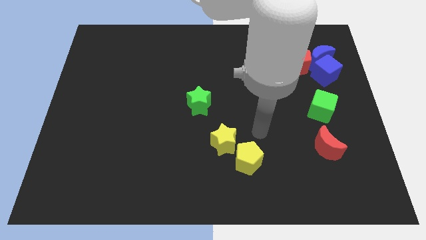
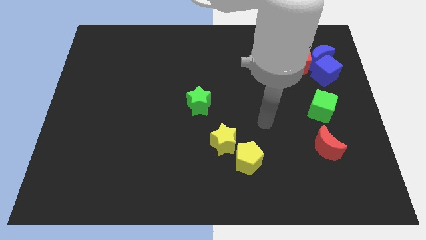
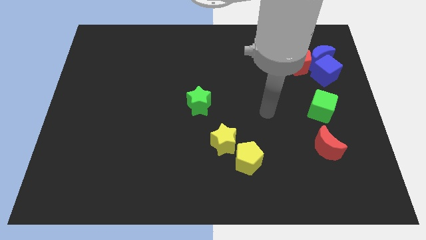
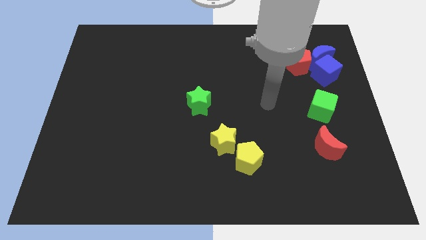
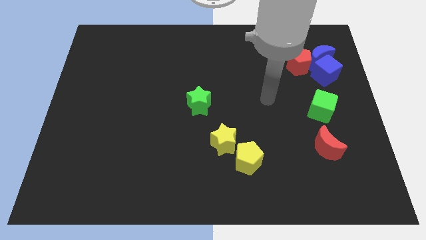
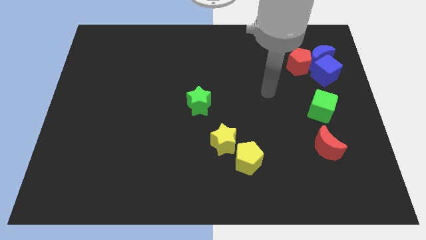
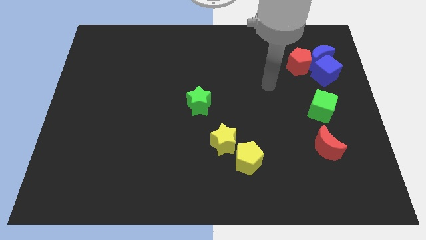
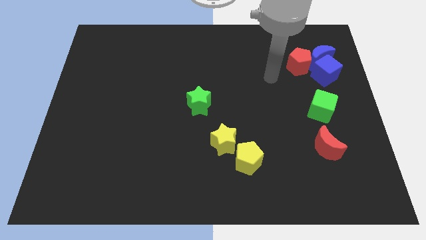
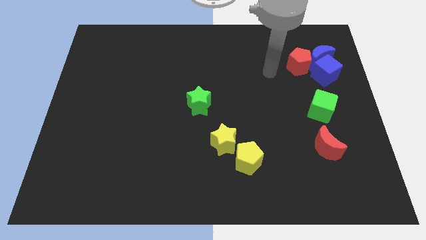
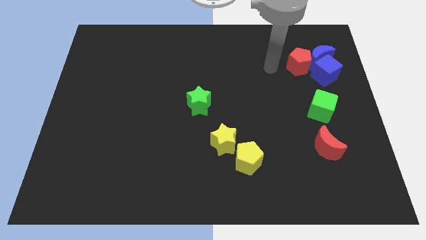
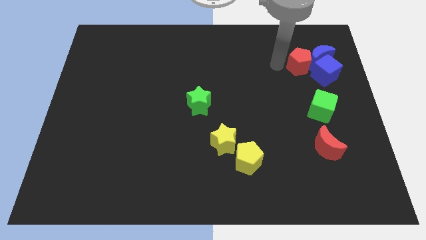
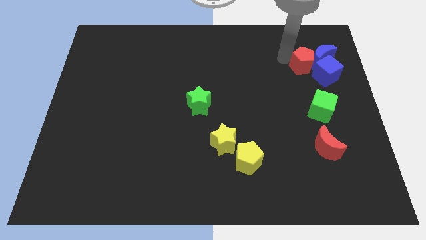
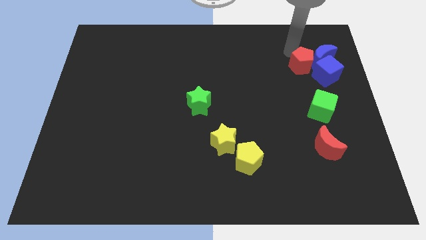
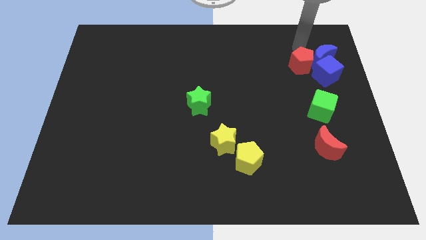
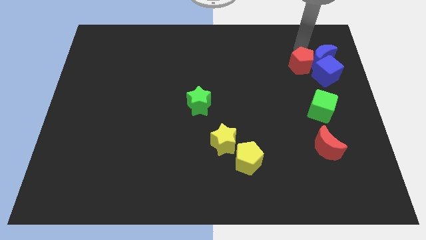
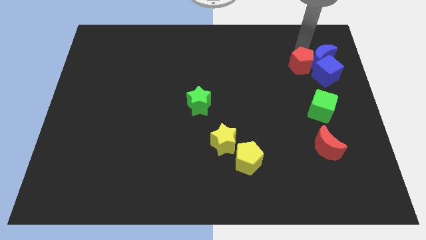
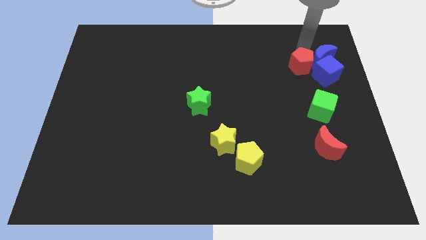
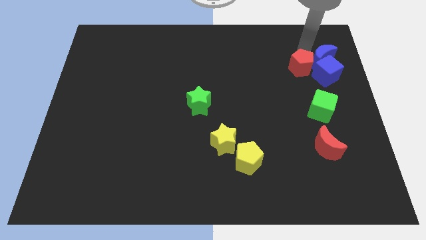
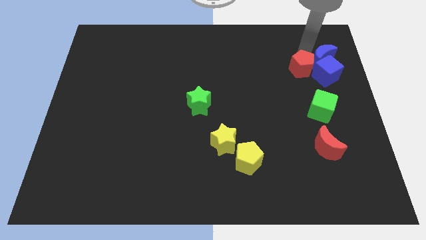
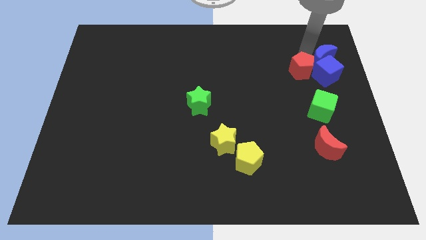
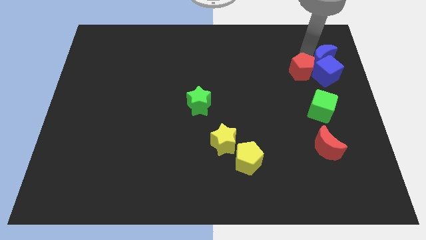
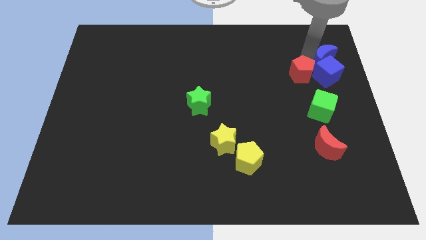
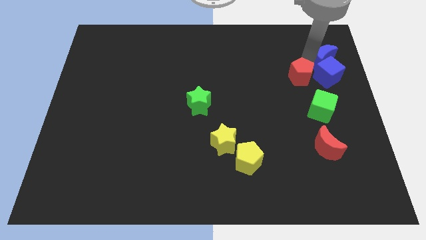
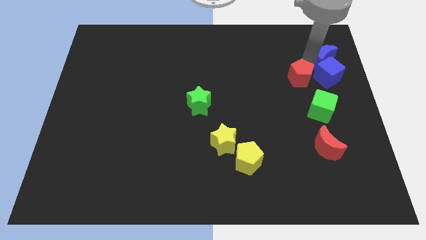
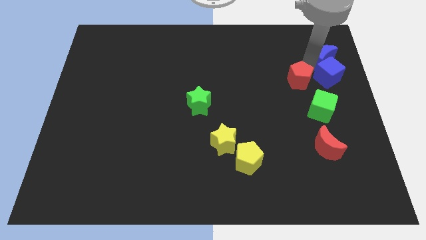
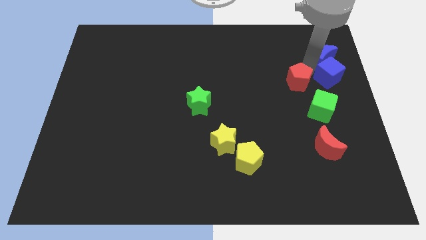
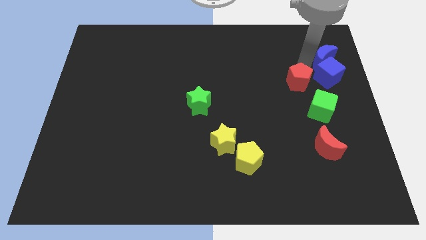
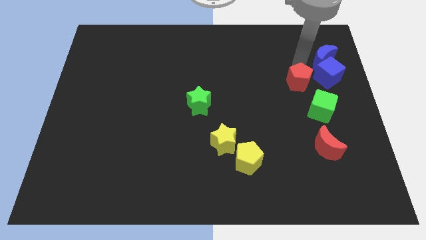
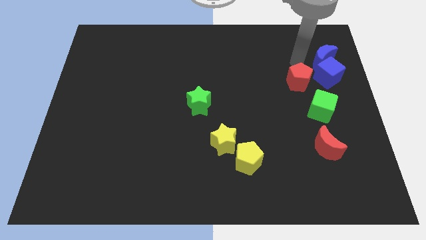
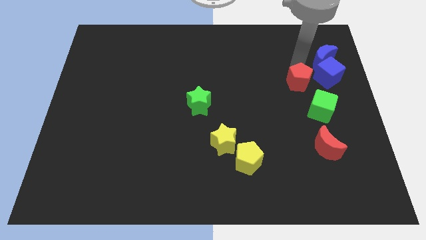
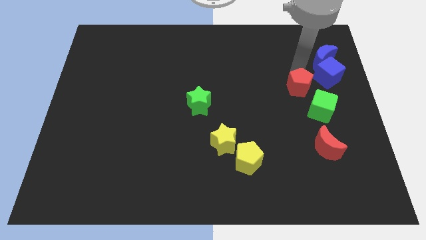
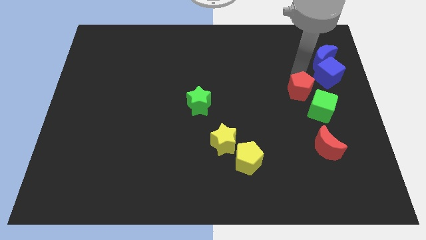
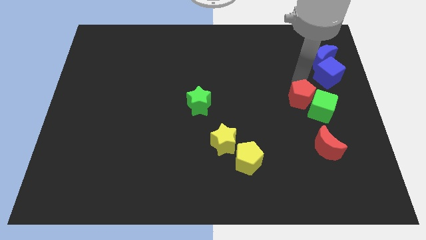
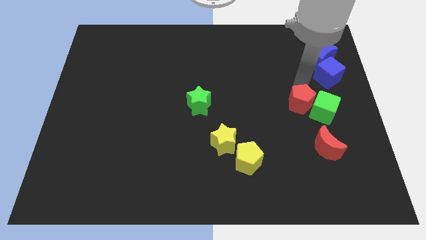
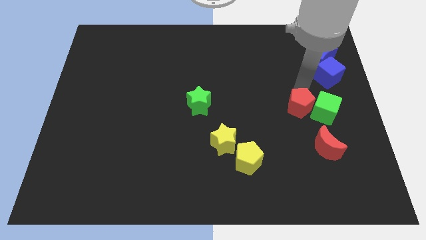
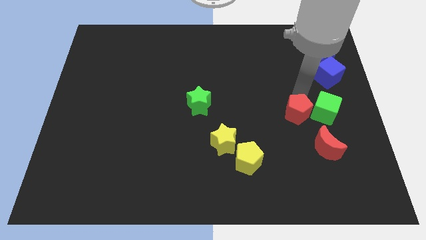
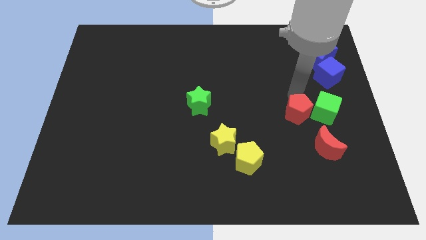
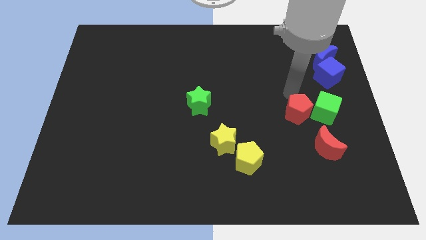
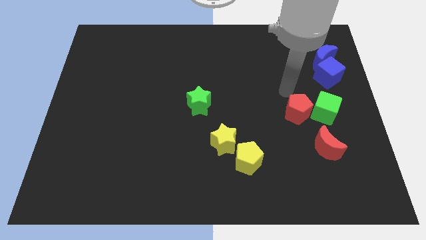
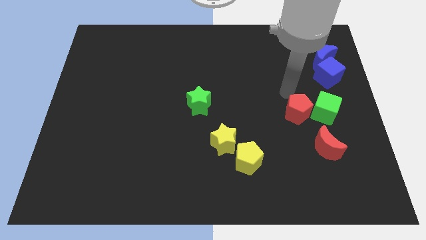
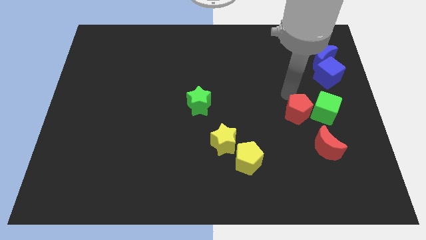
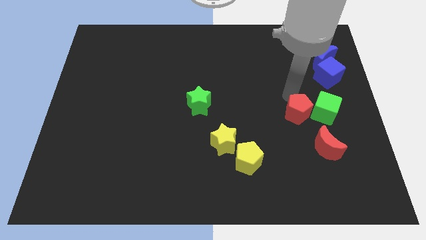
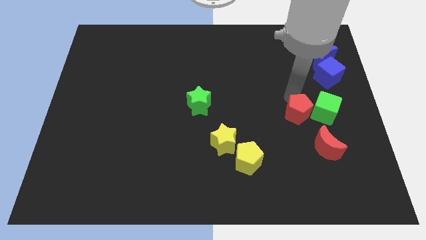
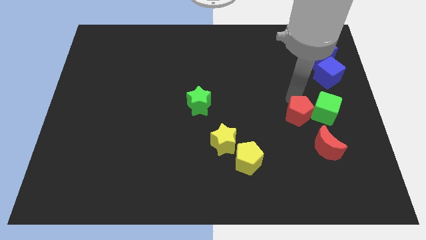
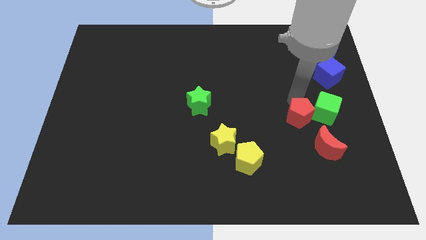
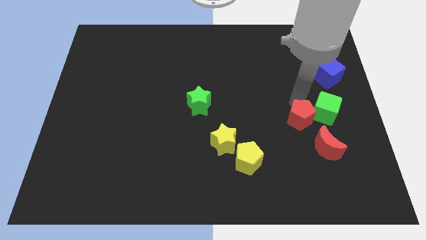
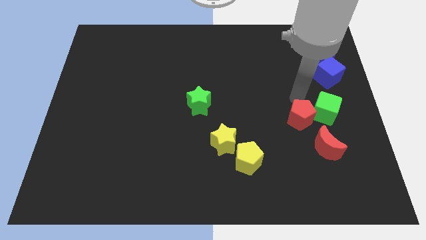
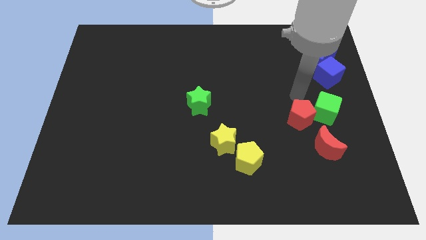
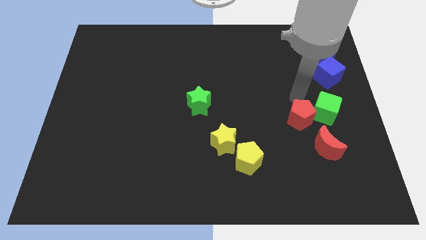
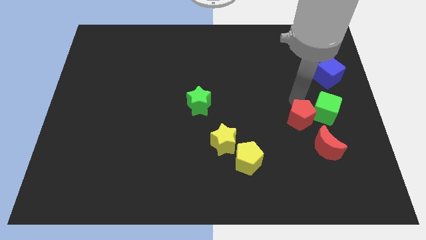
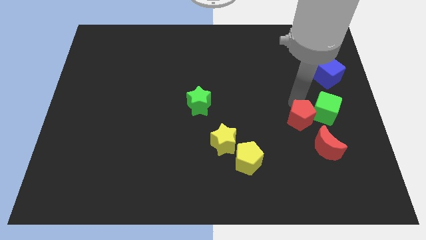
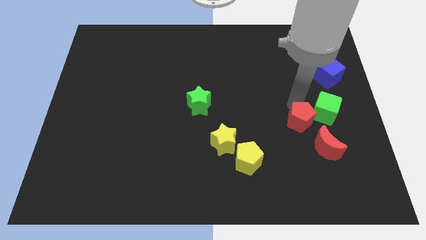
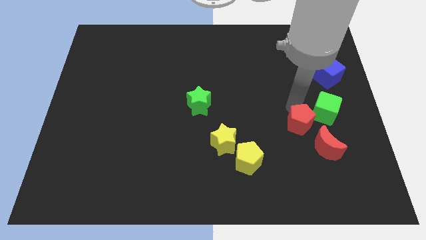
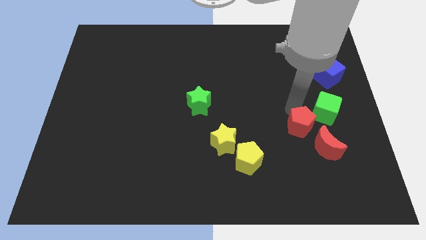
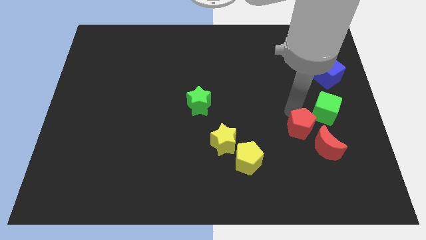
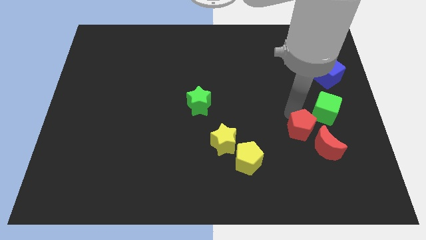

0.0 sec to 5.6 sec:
slide the red pentagon down

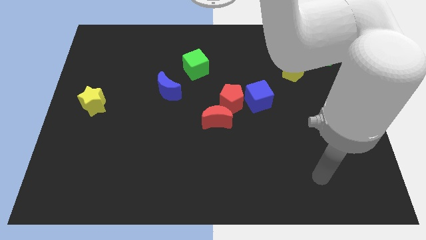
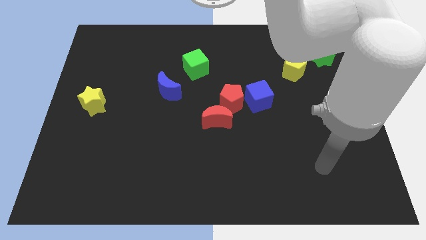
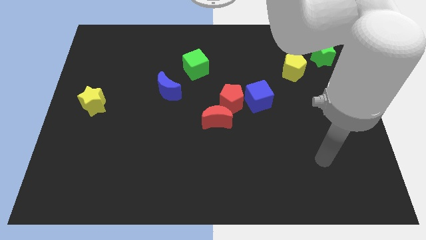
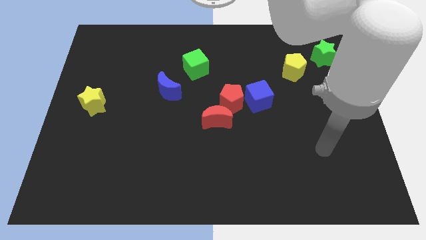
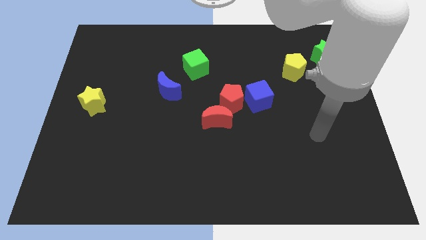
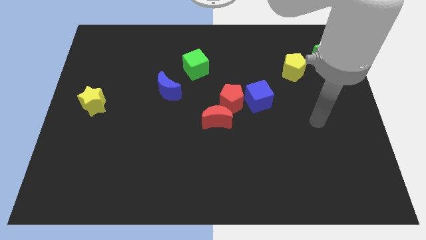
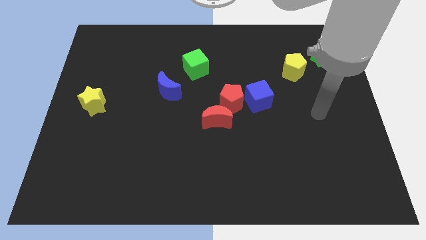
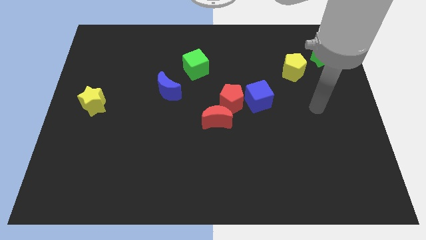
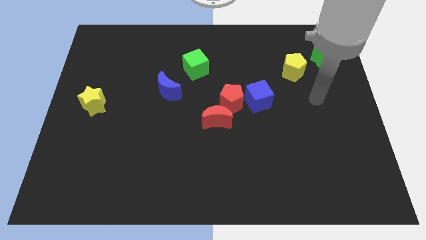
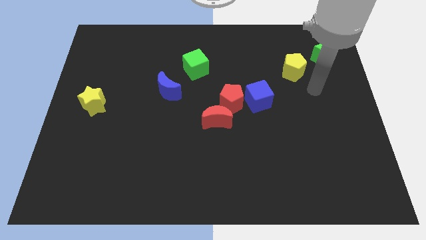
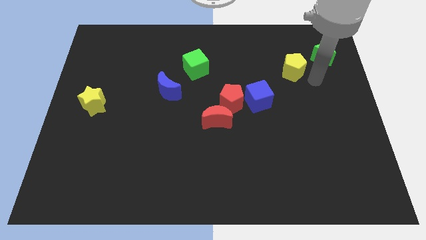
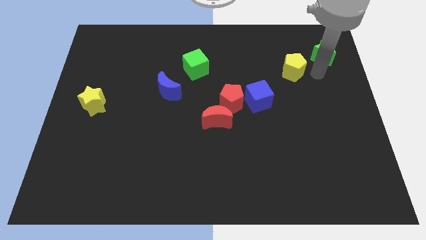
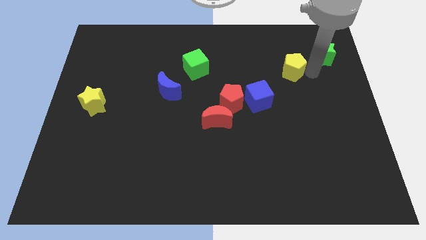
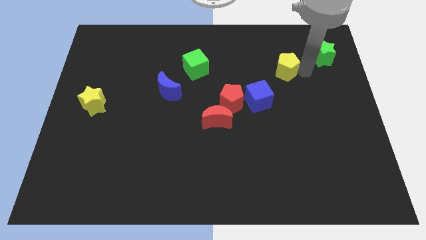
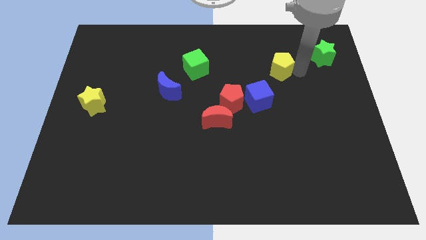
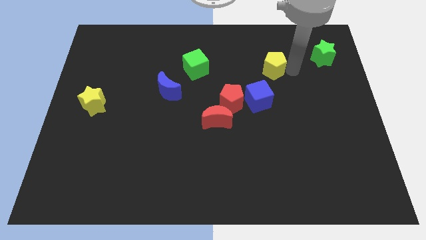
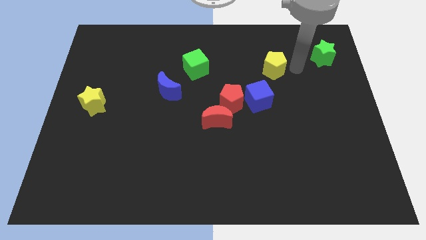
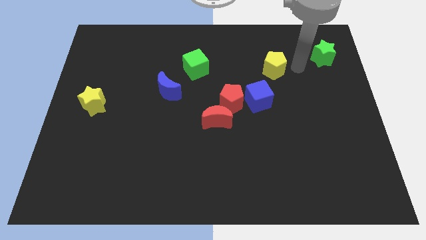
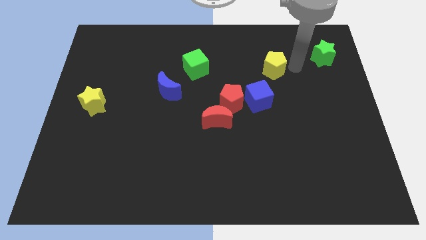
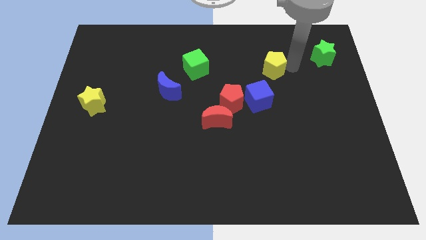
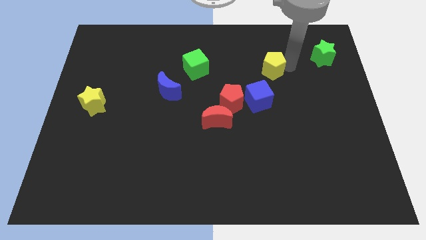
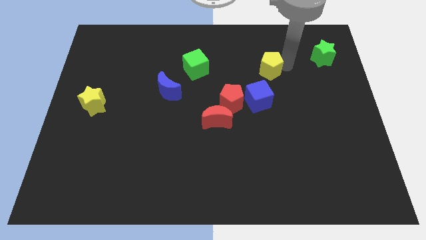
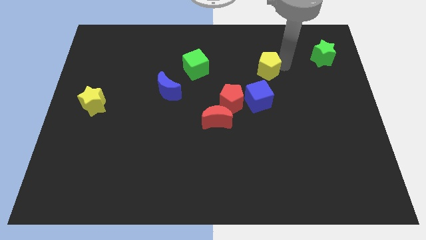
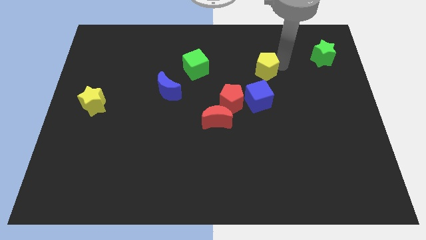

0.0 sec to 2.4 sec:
push the yellow pentagon somewhat to the left

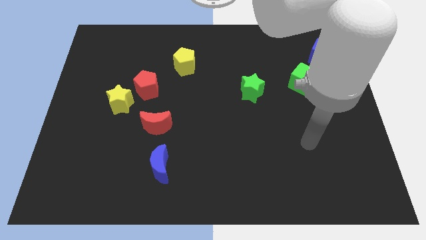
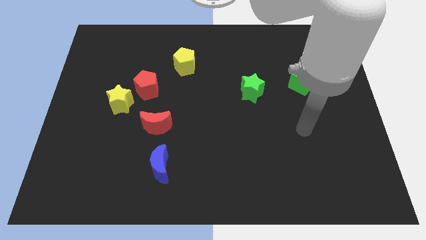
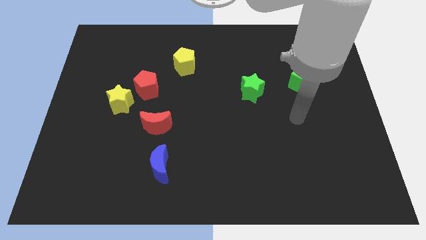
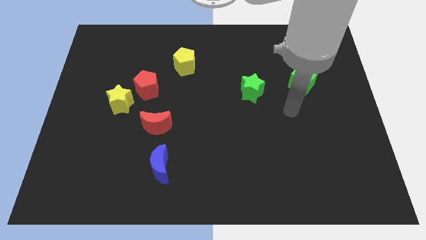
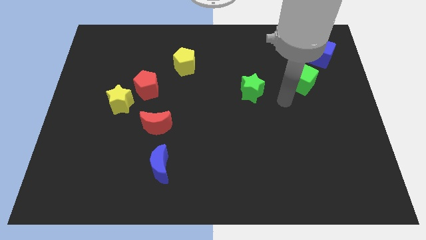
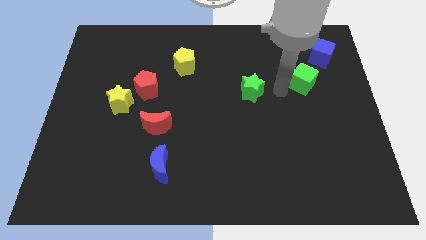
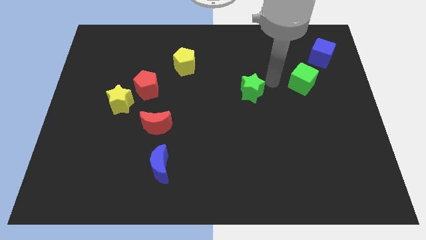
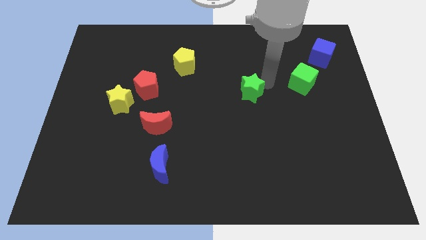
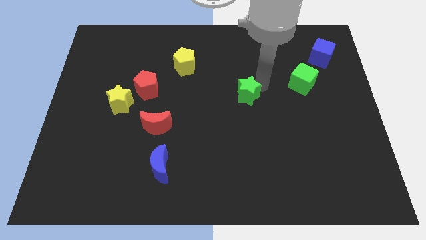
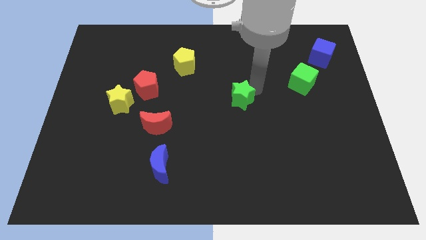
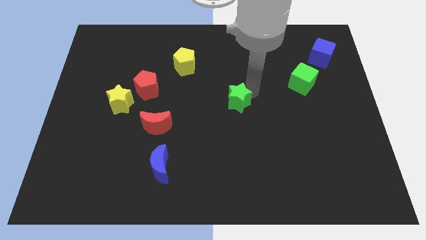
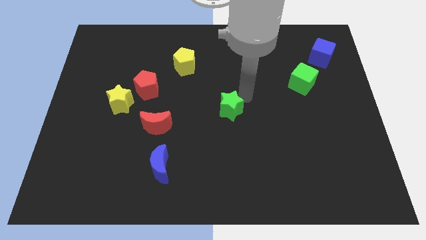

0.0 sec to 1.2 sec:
slightly push the green star down and then left
